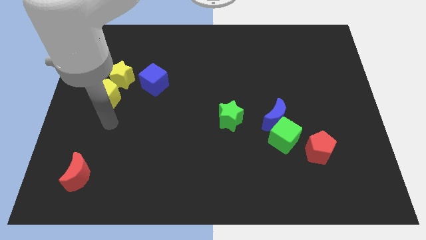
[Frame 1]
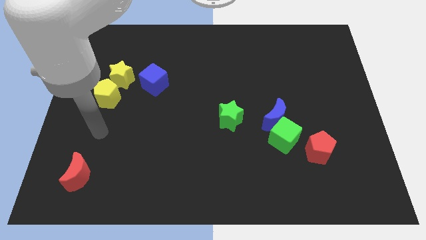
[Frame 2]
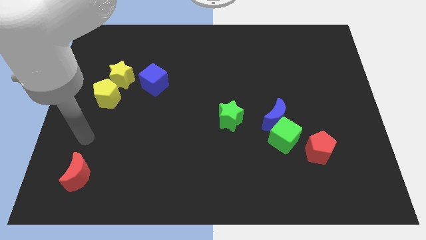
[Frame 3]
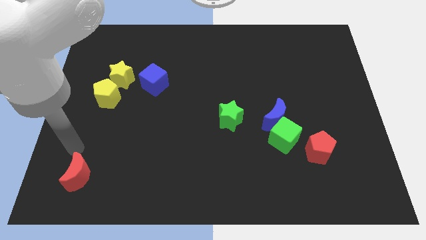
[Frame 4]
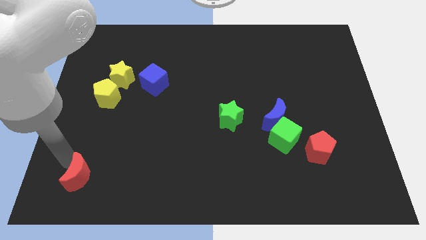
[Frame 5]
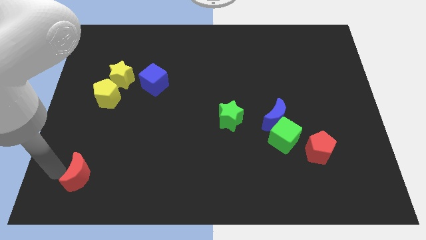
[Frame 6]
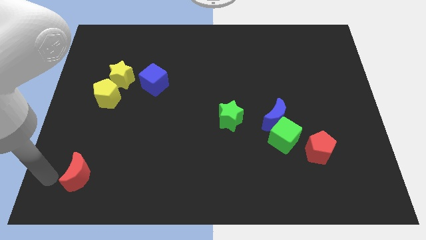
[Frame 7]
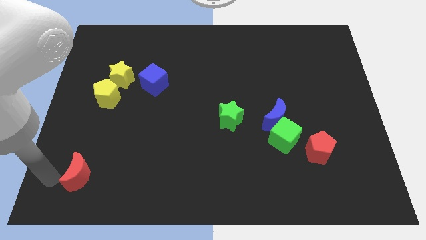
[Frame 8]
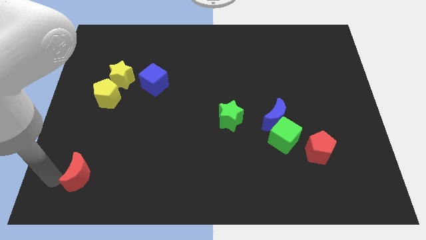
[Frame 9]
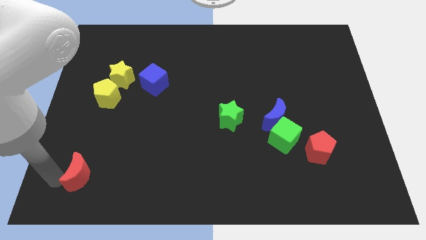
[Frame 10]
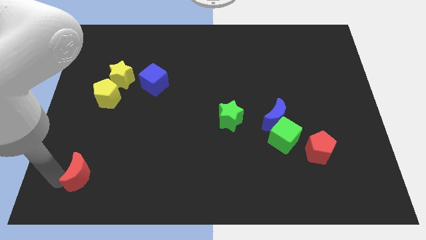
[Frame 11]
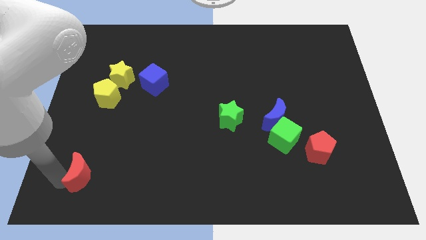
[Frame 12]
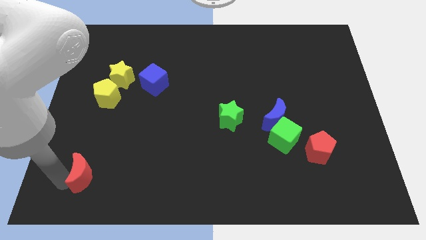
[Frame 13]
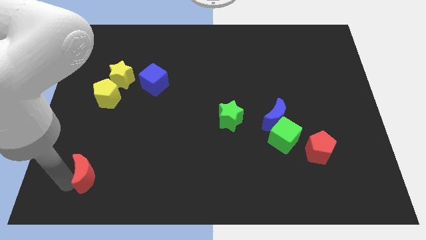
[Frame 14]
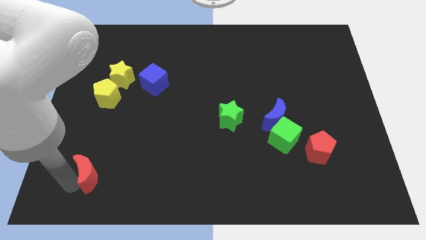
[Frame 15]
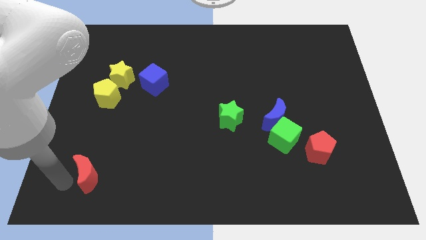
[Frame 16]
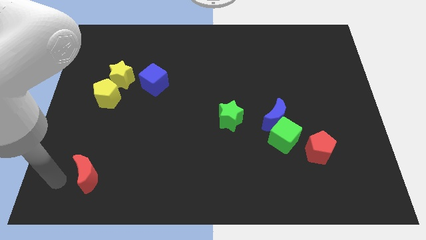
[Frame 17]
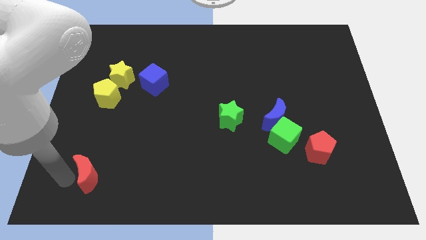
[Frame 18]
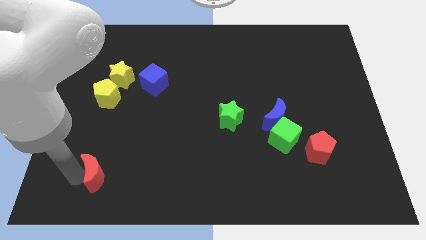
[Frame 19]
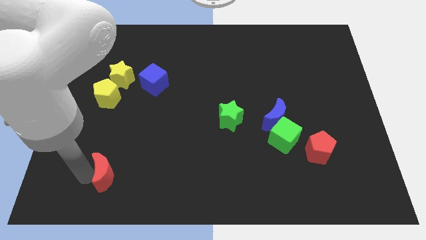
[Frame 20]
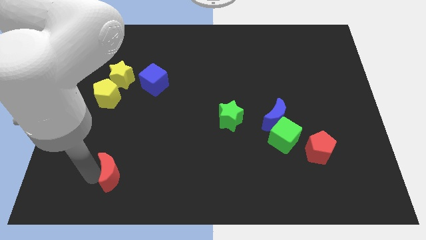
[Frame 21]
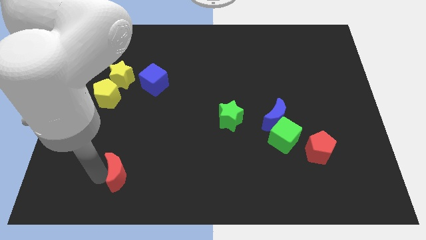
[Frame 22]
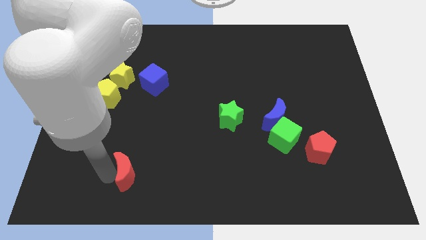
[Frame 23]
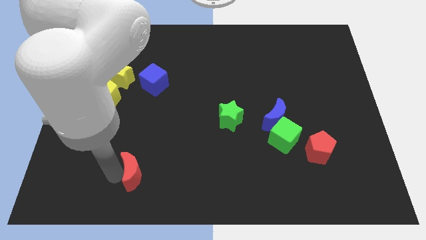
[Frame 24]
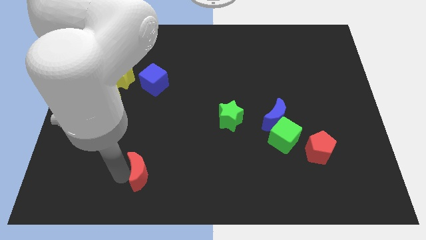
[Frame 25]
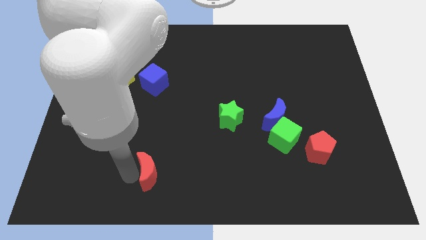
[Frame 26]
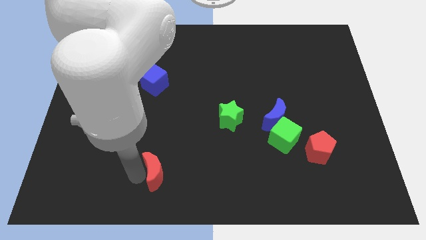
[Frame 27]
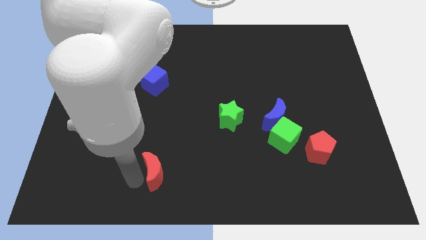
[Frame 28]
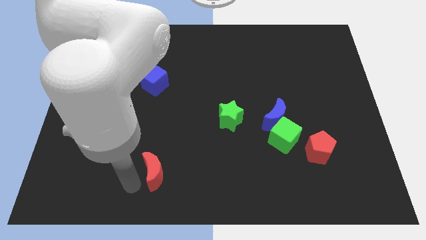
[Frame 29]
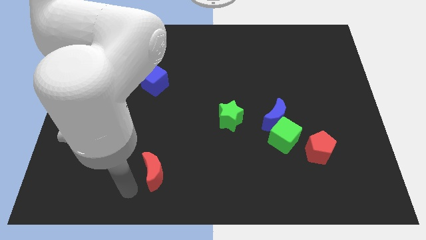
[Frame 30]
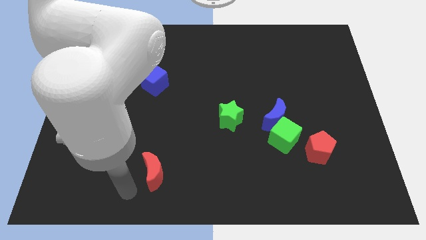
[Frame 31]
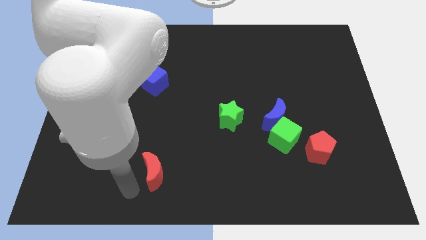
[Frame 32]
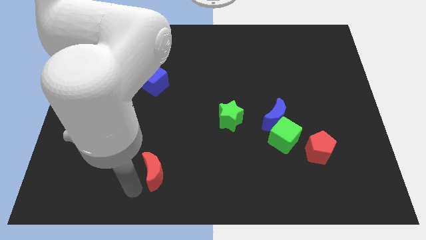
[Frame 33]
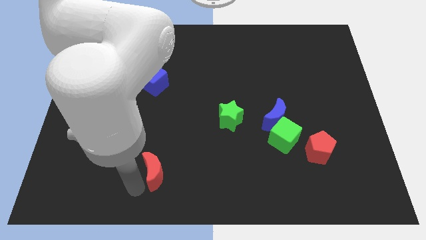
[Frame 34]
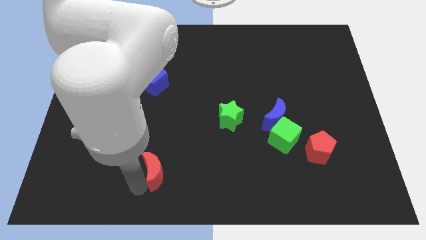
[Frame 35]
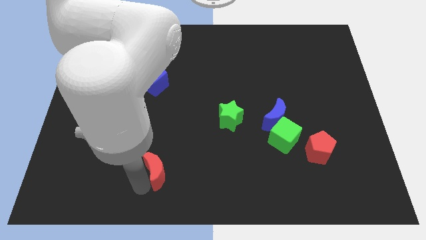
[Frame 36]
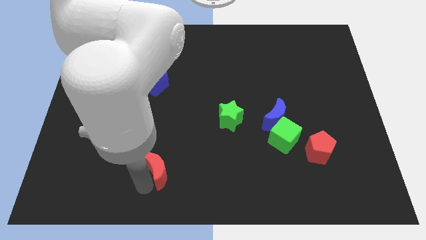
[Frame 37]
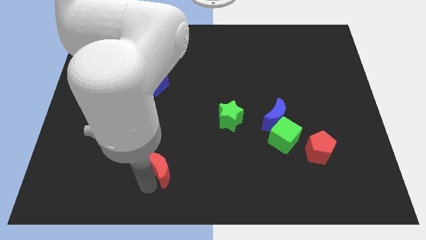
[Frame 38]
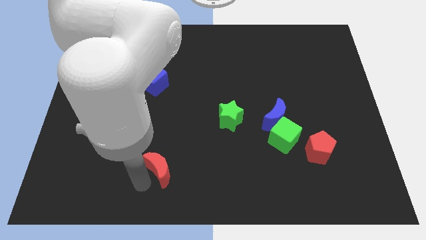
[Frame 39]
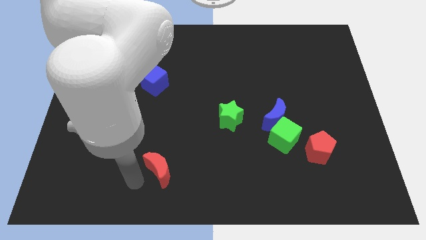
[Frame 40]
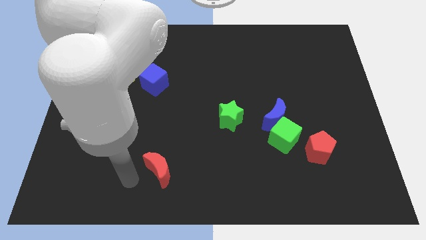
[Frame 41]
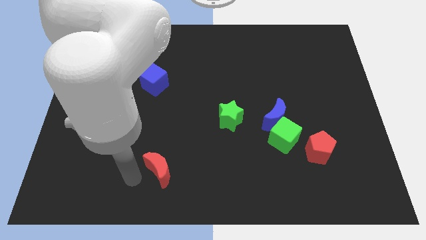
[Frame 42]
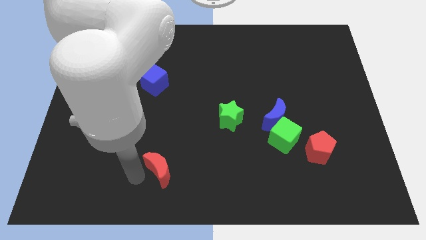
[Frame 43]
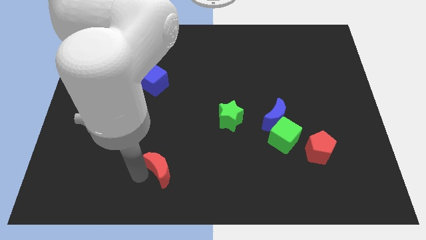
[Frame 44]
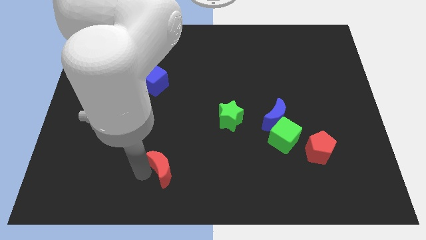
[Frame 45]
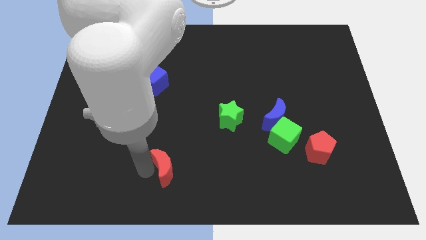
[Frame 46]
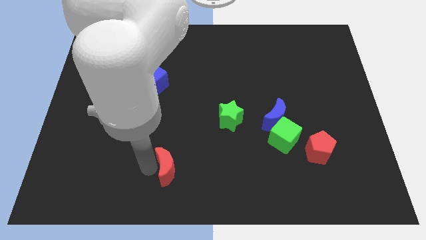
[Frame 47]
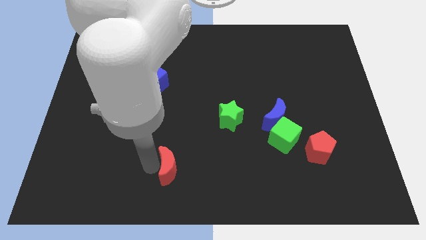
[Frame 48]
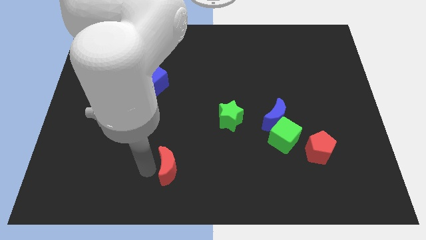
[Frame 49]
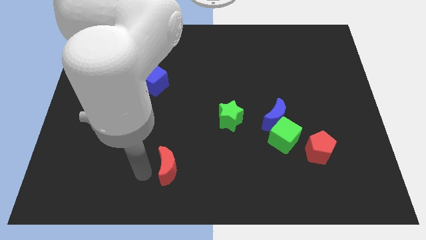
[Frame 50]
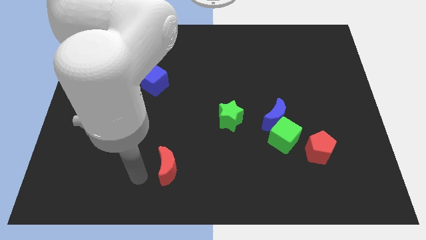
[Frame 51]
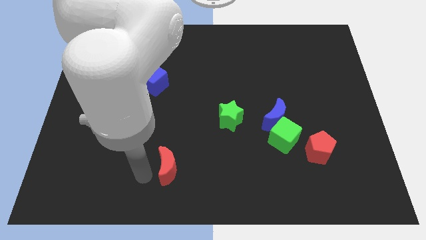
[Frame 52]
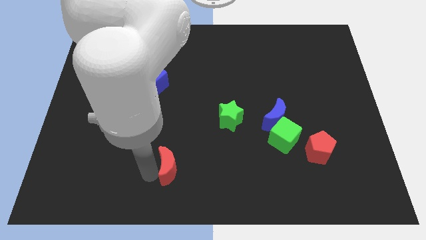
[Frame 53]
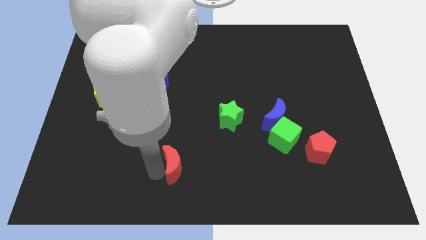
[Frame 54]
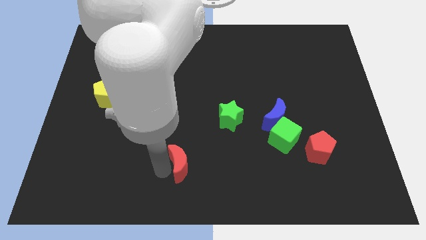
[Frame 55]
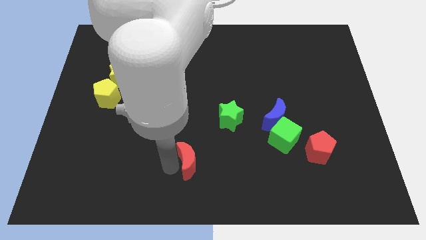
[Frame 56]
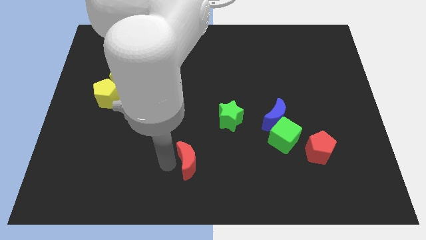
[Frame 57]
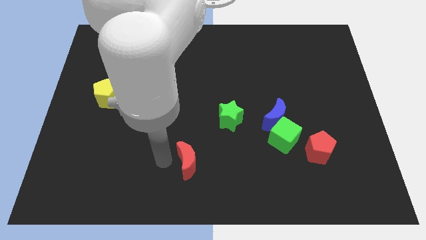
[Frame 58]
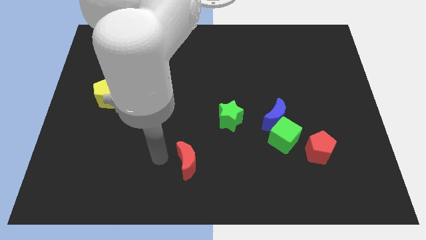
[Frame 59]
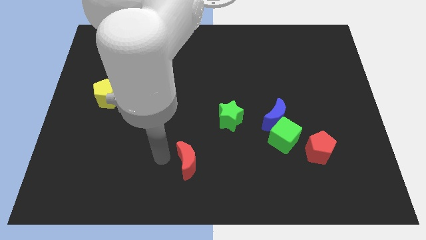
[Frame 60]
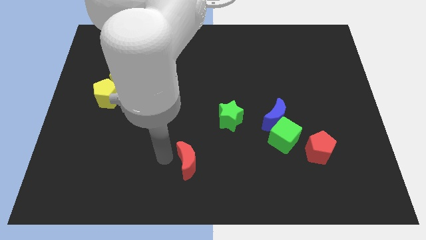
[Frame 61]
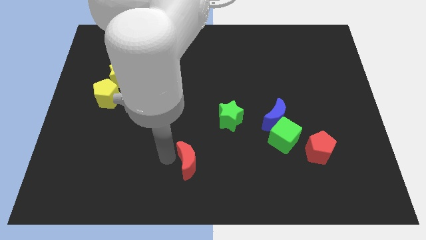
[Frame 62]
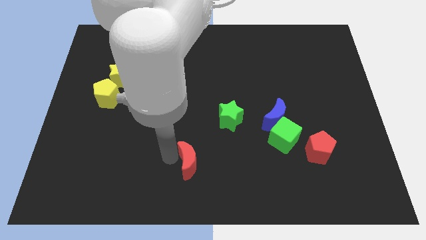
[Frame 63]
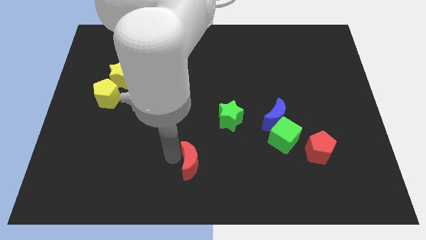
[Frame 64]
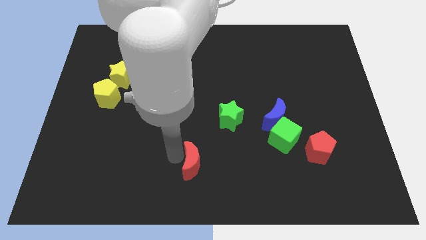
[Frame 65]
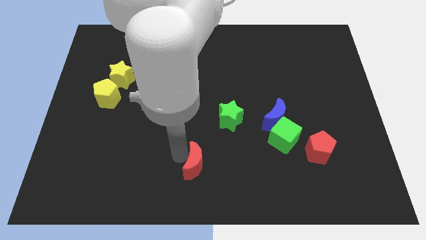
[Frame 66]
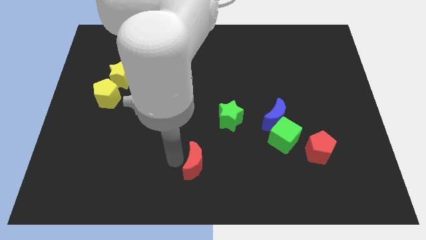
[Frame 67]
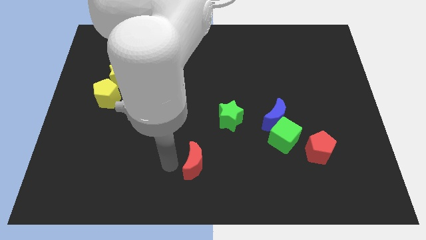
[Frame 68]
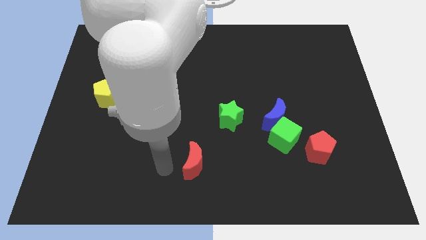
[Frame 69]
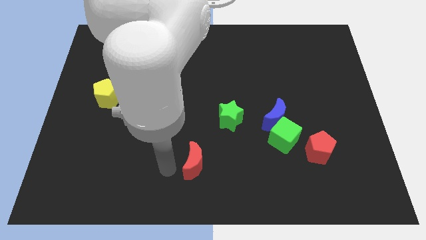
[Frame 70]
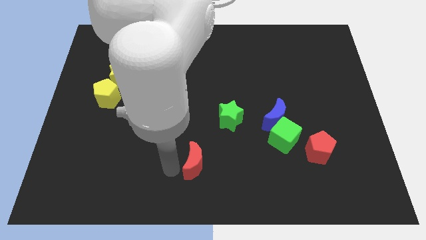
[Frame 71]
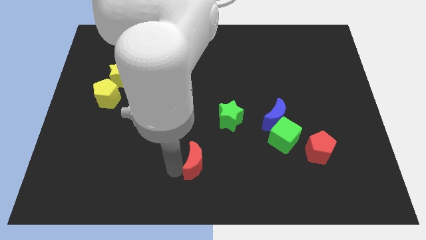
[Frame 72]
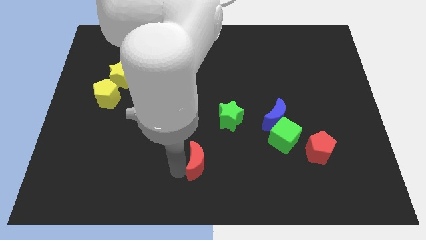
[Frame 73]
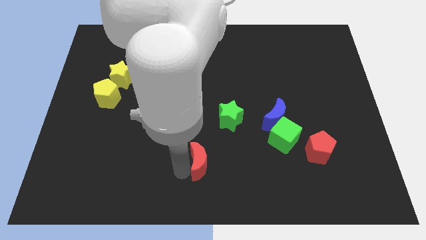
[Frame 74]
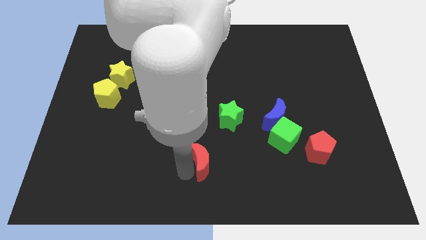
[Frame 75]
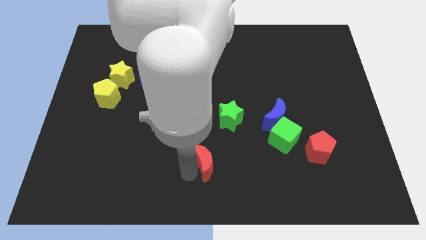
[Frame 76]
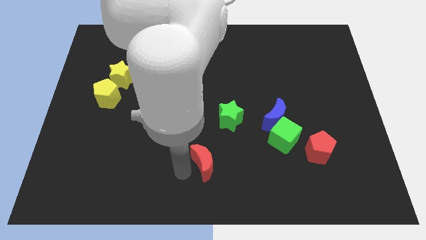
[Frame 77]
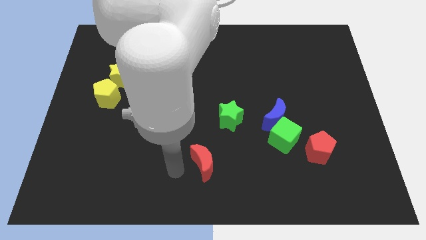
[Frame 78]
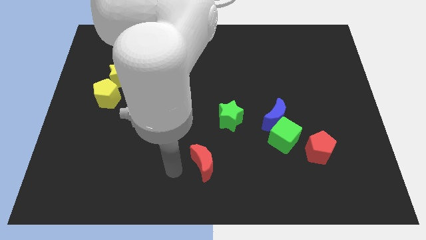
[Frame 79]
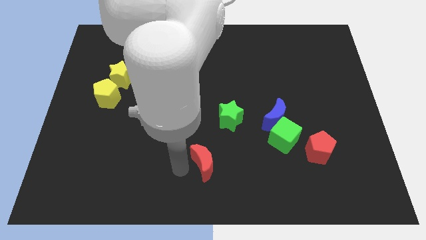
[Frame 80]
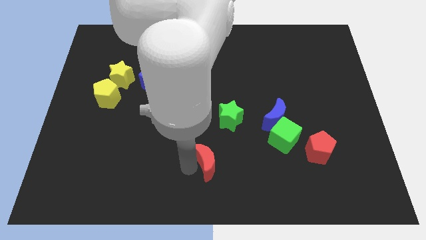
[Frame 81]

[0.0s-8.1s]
push the red moon to the bottom of the green star
